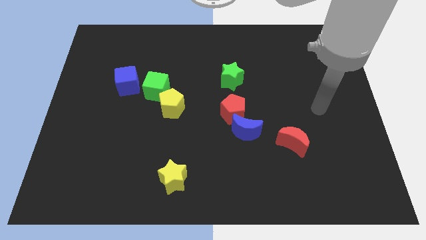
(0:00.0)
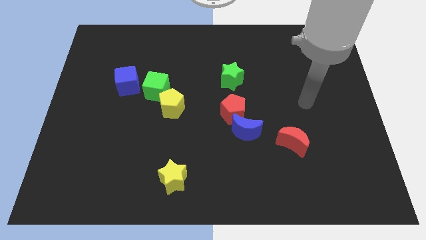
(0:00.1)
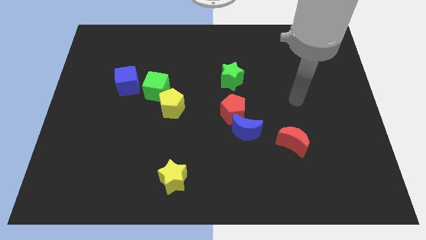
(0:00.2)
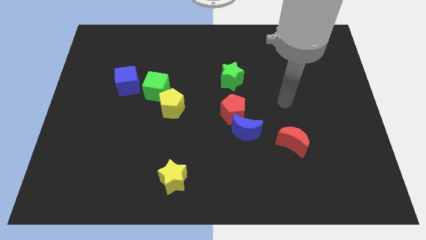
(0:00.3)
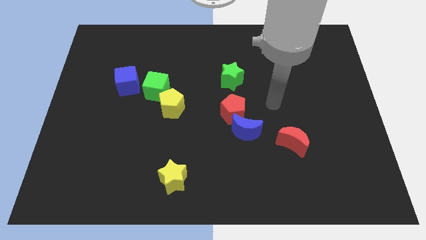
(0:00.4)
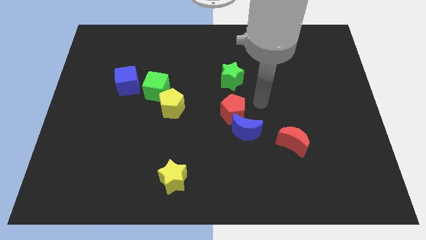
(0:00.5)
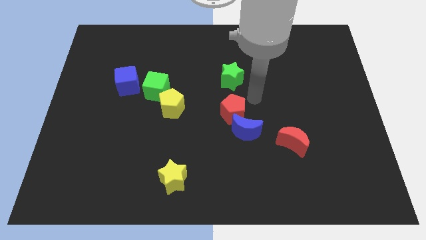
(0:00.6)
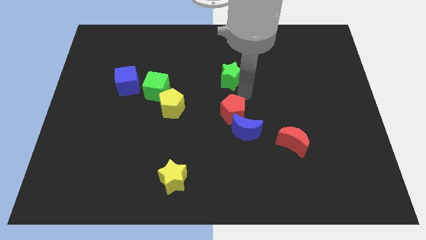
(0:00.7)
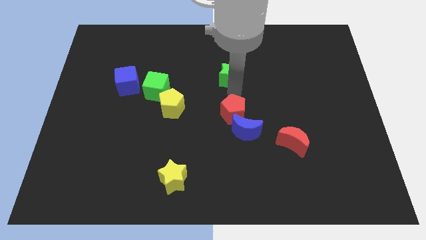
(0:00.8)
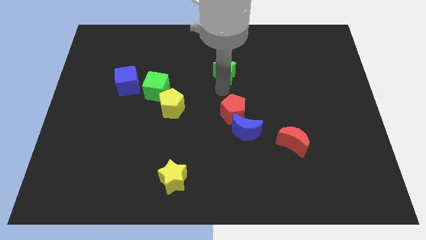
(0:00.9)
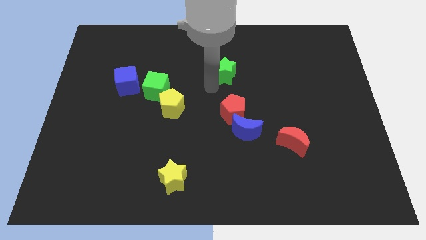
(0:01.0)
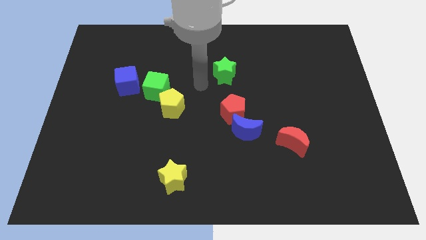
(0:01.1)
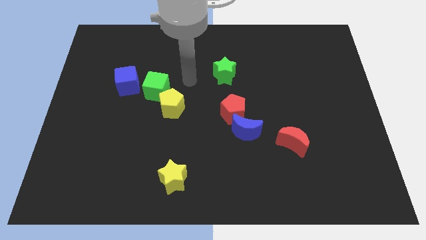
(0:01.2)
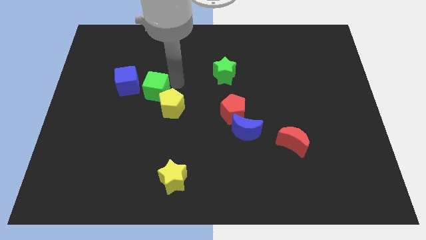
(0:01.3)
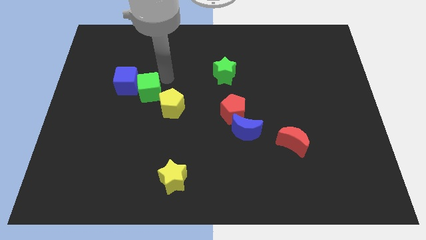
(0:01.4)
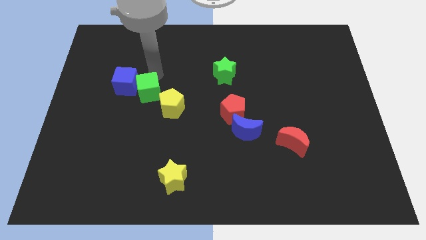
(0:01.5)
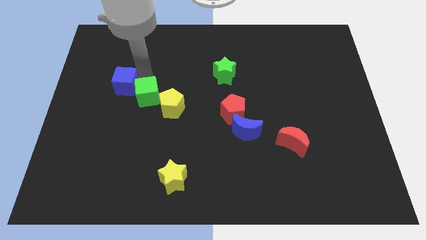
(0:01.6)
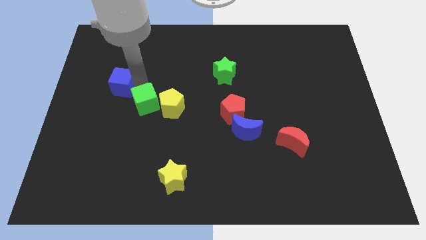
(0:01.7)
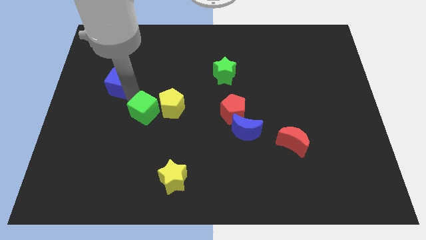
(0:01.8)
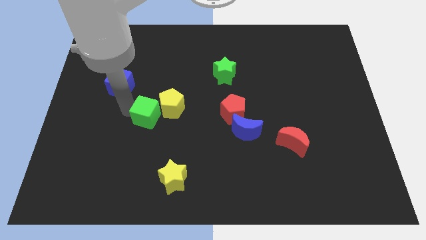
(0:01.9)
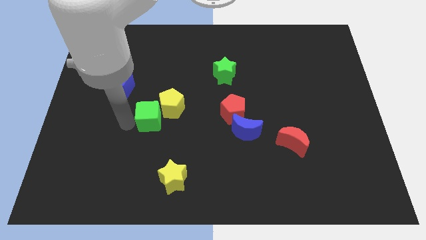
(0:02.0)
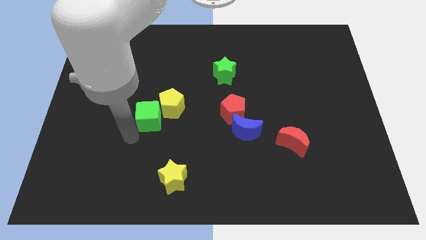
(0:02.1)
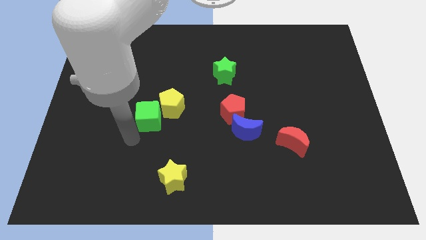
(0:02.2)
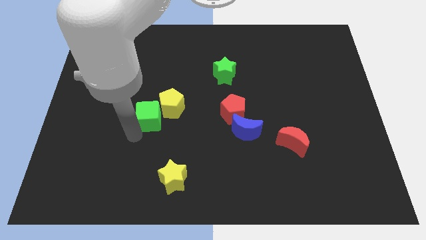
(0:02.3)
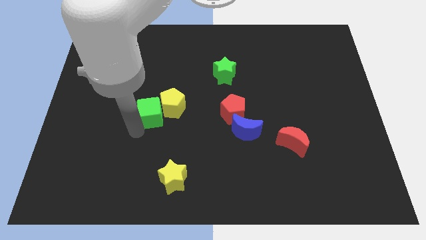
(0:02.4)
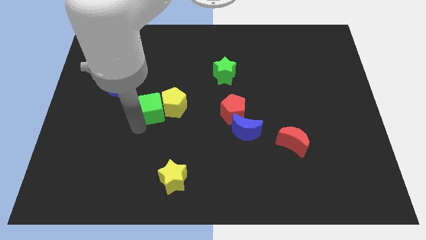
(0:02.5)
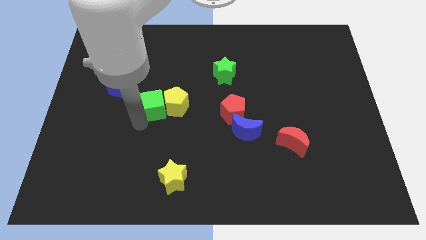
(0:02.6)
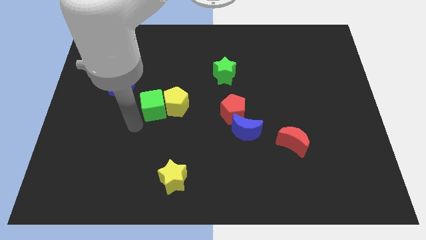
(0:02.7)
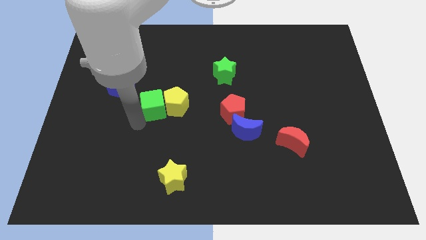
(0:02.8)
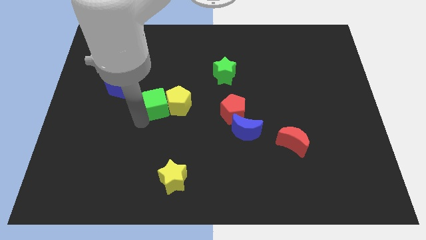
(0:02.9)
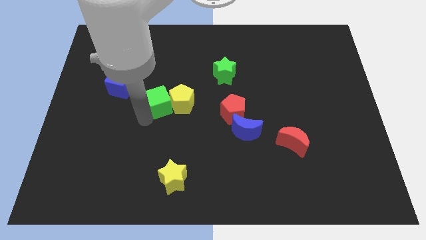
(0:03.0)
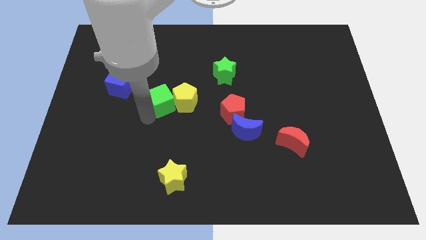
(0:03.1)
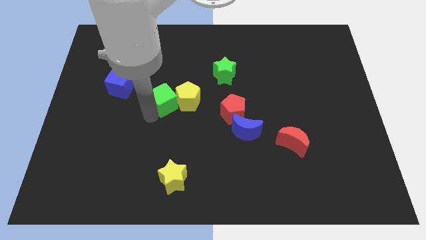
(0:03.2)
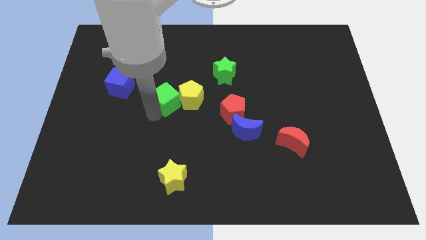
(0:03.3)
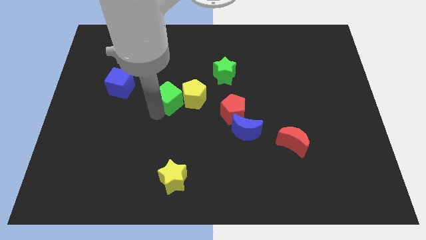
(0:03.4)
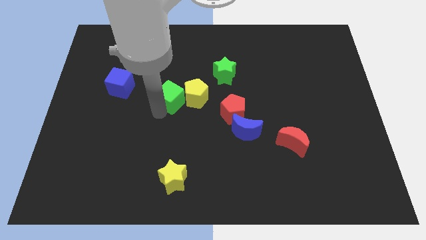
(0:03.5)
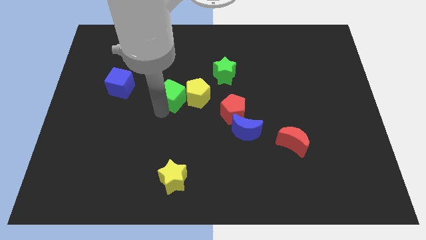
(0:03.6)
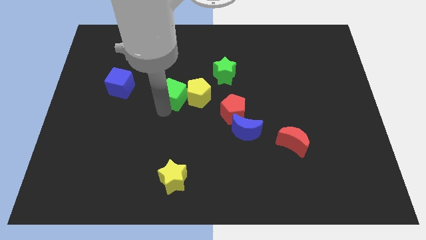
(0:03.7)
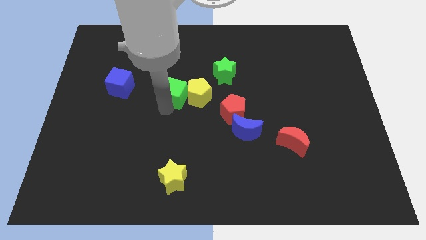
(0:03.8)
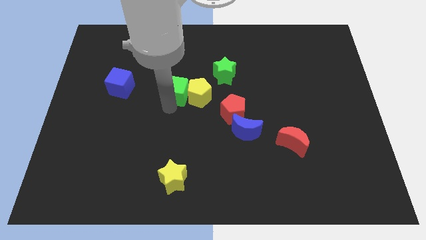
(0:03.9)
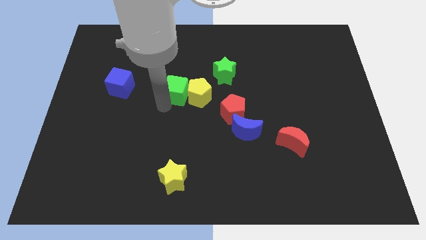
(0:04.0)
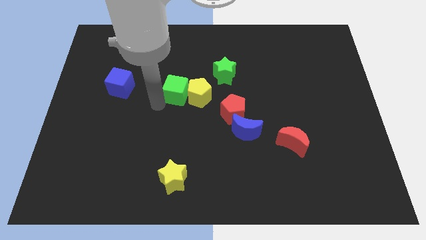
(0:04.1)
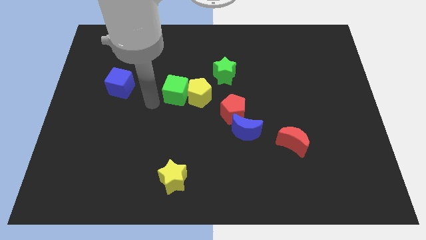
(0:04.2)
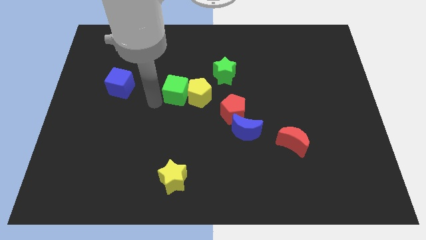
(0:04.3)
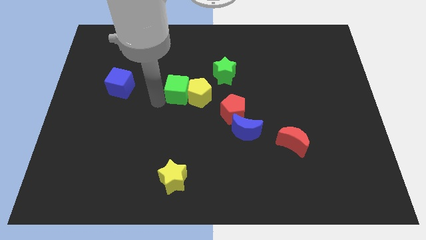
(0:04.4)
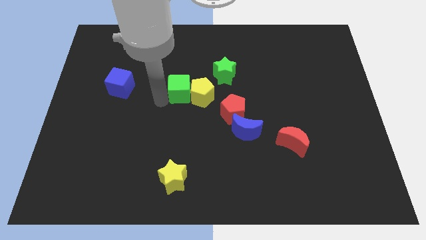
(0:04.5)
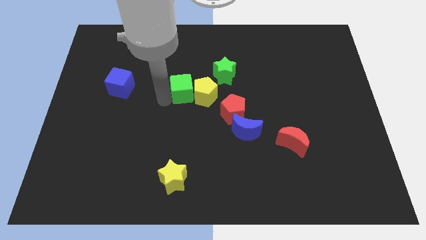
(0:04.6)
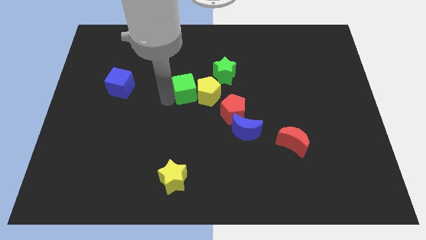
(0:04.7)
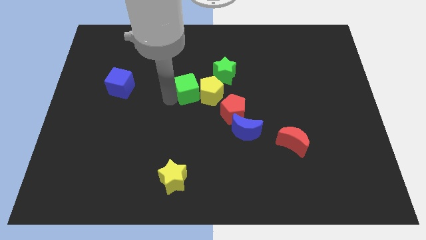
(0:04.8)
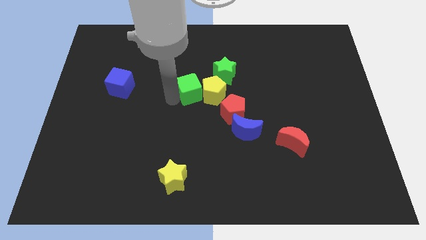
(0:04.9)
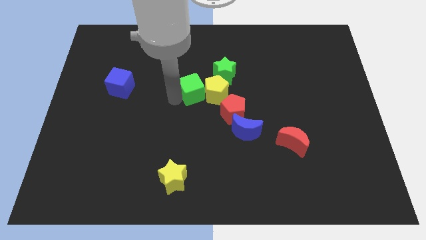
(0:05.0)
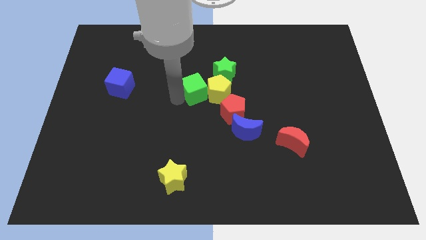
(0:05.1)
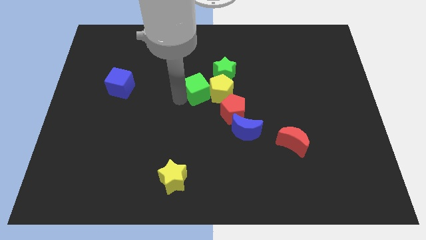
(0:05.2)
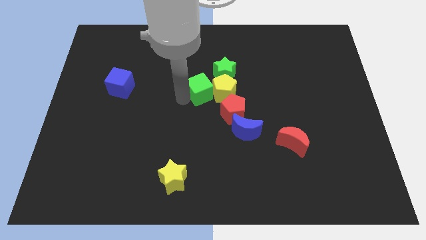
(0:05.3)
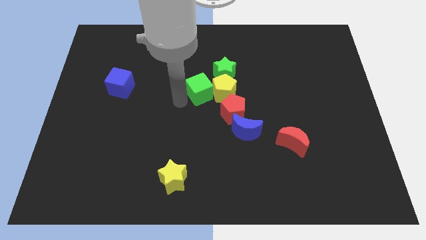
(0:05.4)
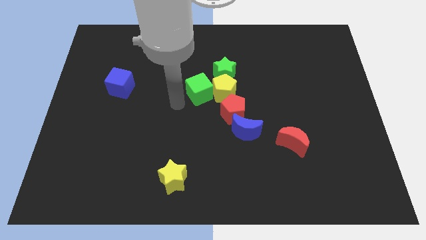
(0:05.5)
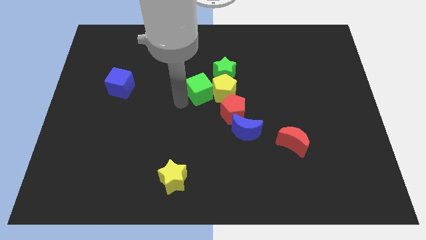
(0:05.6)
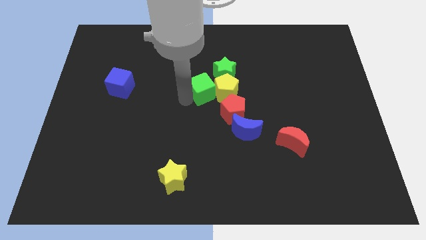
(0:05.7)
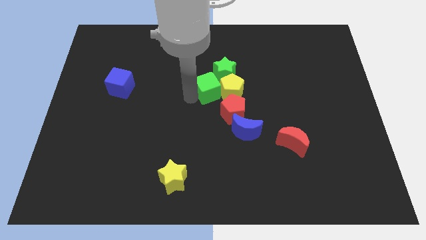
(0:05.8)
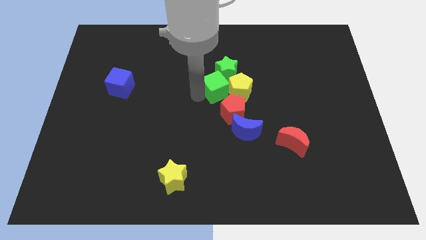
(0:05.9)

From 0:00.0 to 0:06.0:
move the green cube towards the green star

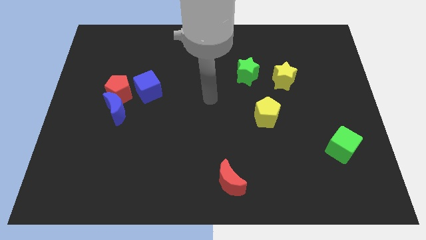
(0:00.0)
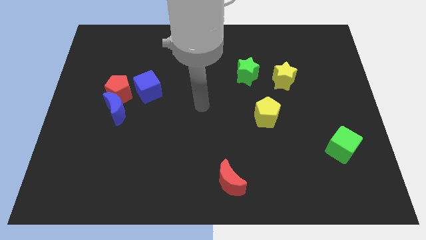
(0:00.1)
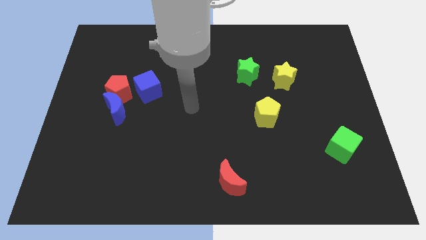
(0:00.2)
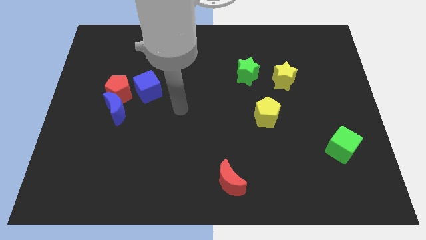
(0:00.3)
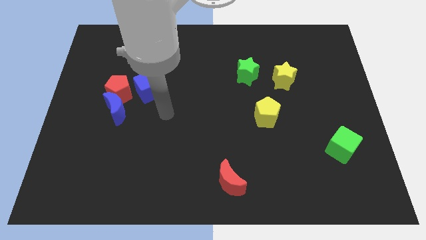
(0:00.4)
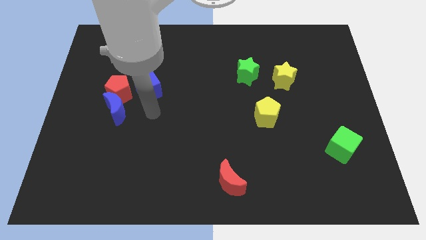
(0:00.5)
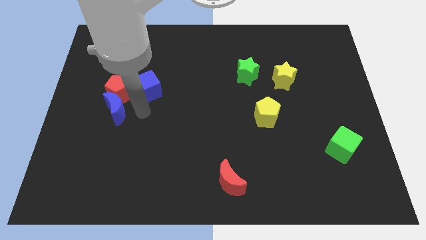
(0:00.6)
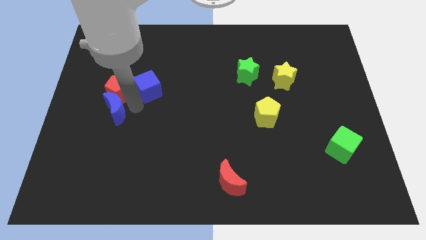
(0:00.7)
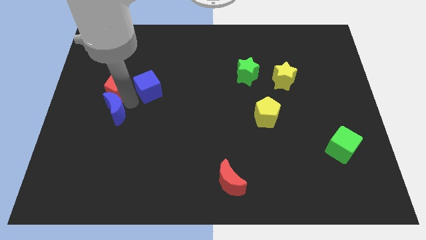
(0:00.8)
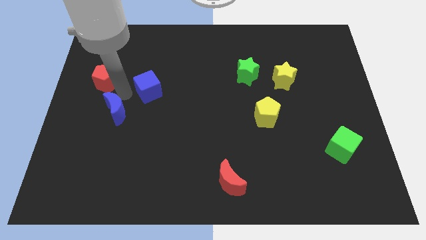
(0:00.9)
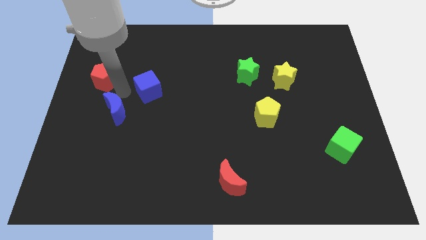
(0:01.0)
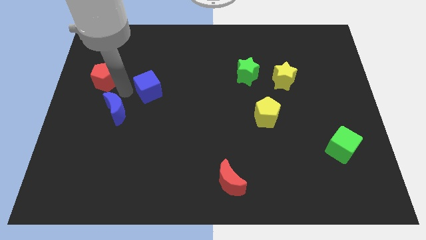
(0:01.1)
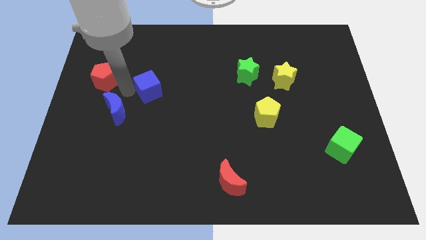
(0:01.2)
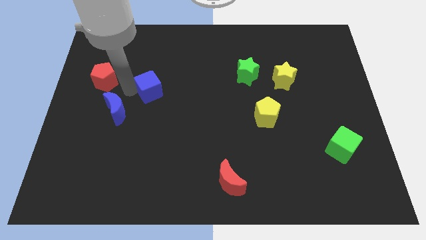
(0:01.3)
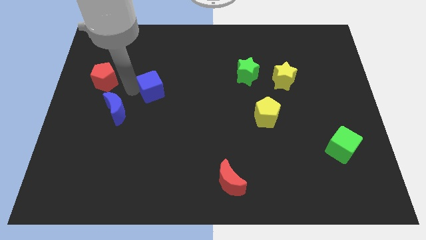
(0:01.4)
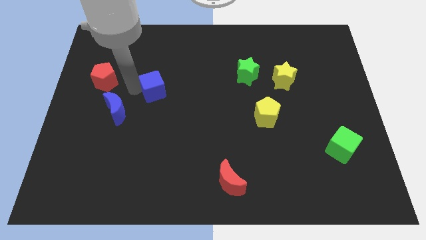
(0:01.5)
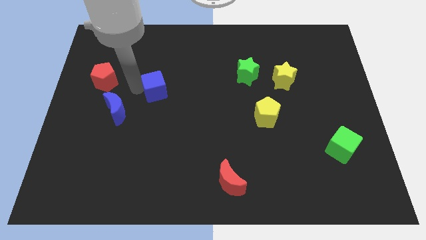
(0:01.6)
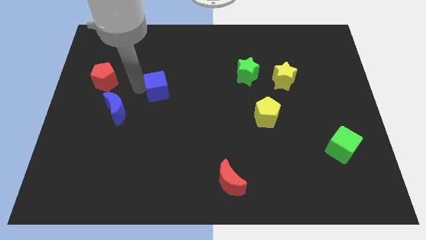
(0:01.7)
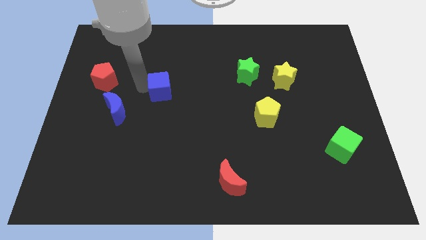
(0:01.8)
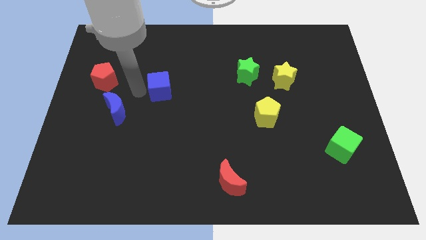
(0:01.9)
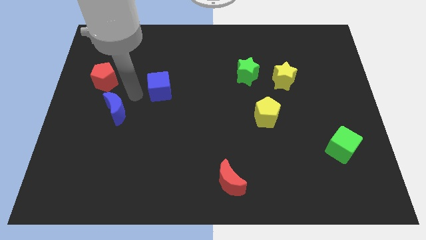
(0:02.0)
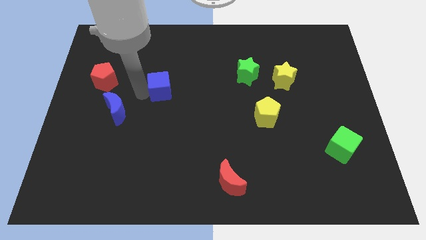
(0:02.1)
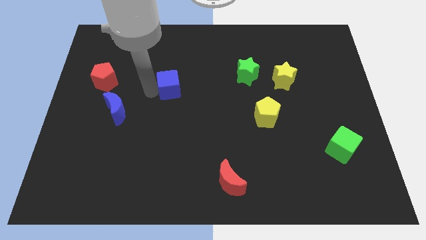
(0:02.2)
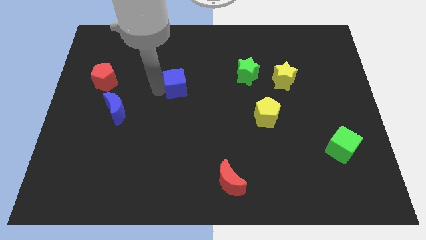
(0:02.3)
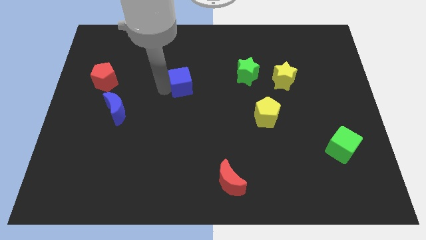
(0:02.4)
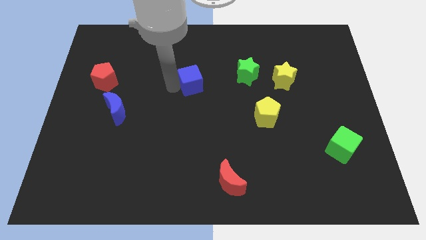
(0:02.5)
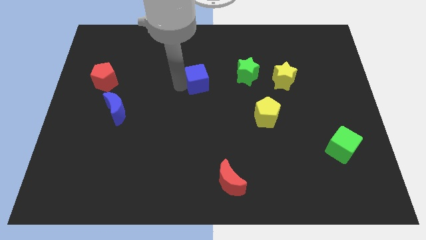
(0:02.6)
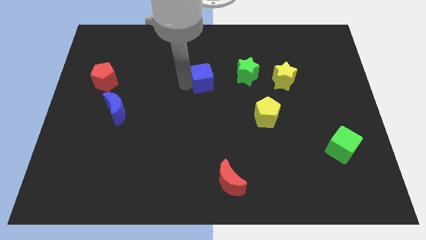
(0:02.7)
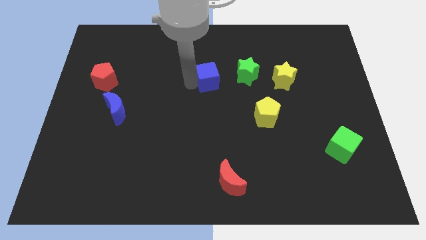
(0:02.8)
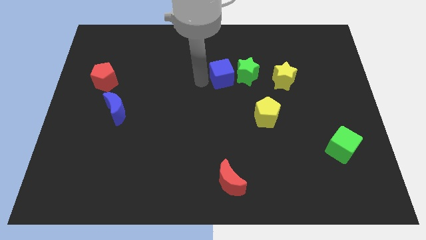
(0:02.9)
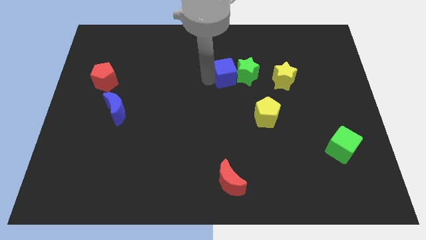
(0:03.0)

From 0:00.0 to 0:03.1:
put the blue cube close to the green star
